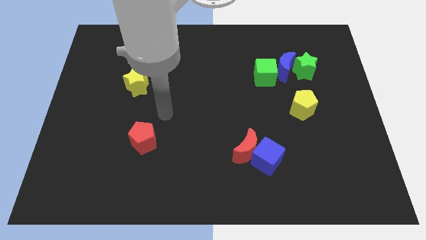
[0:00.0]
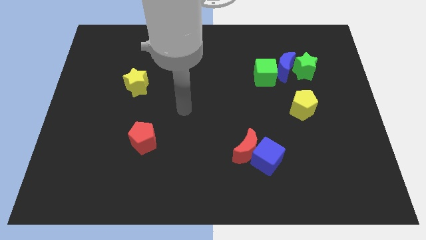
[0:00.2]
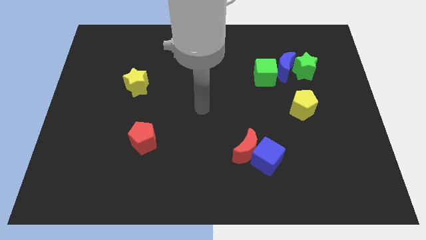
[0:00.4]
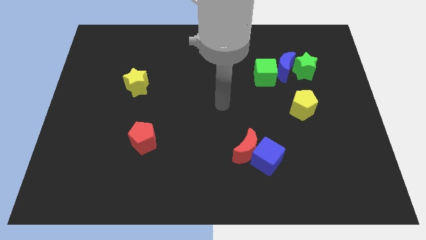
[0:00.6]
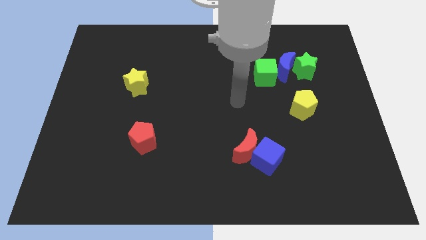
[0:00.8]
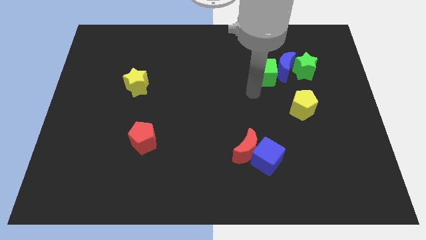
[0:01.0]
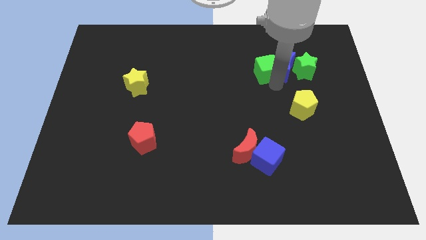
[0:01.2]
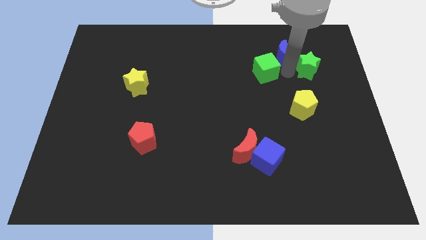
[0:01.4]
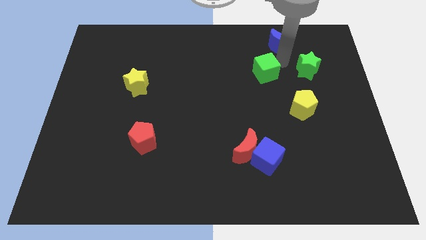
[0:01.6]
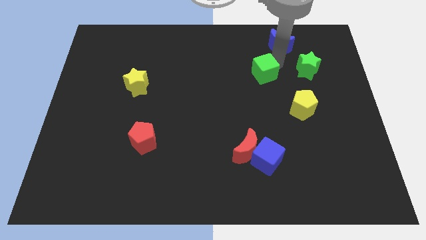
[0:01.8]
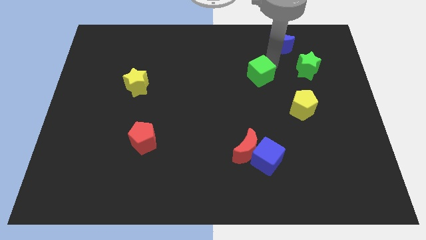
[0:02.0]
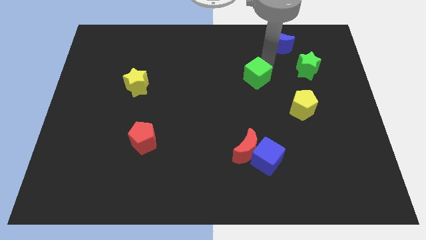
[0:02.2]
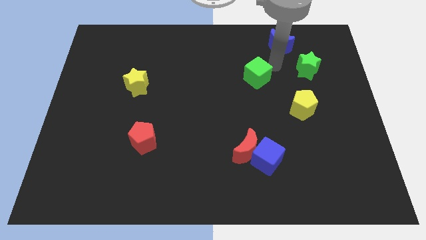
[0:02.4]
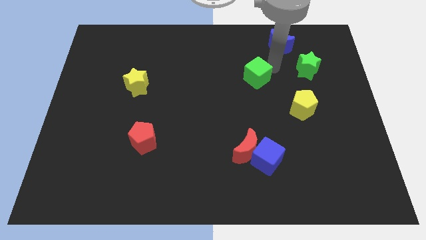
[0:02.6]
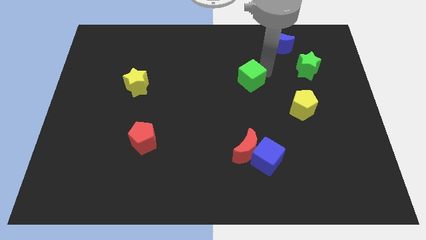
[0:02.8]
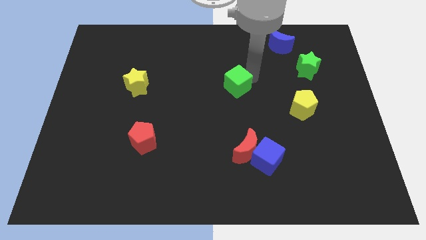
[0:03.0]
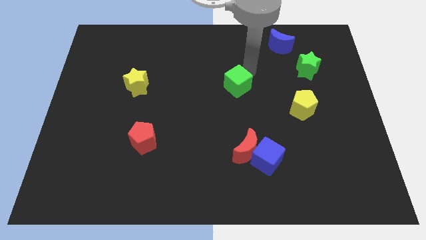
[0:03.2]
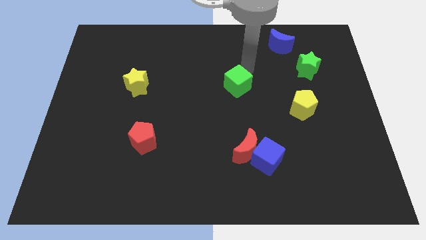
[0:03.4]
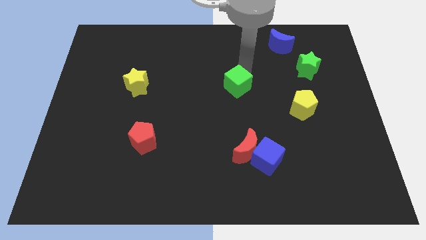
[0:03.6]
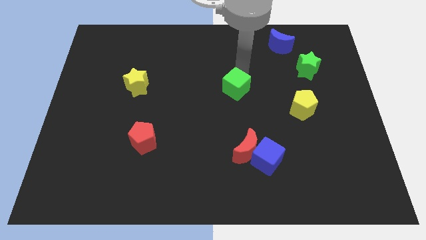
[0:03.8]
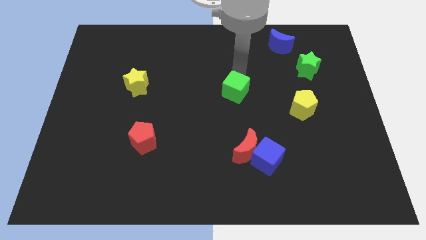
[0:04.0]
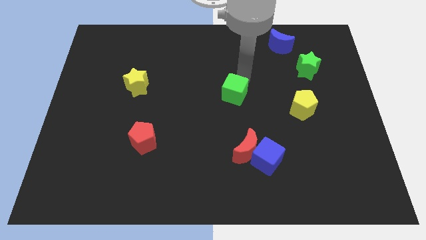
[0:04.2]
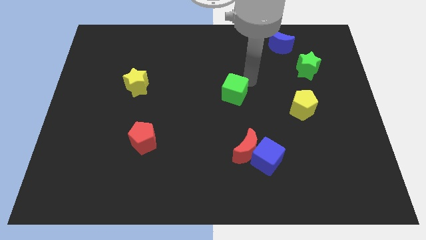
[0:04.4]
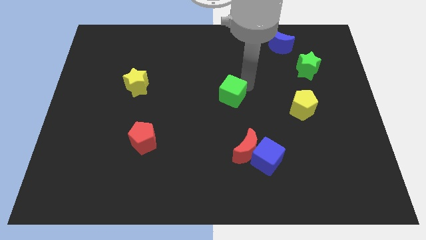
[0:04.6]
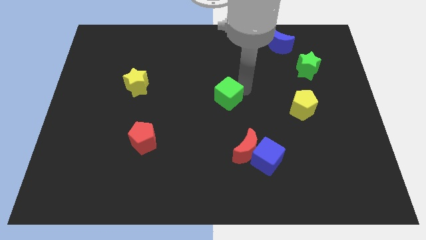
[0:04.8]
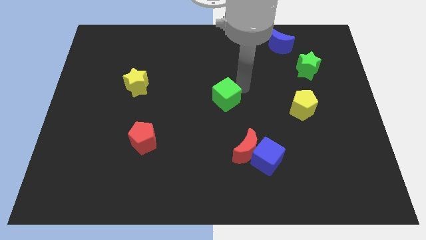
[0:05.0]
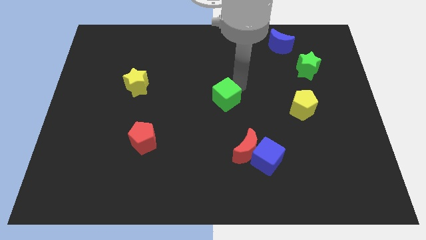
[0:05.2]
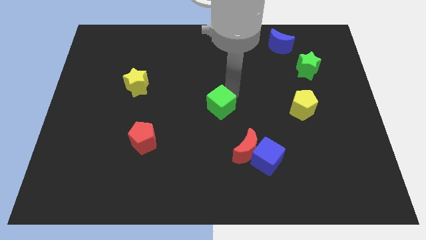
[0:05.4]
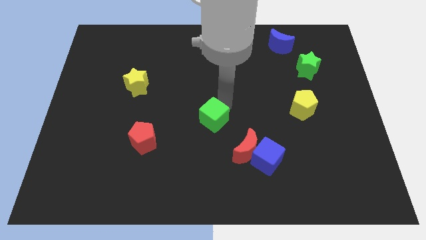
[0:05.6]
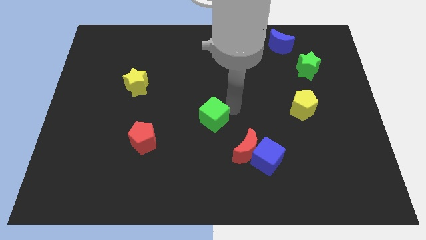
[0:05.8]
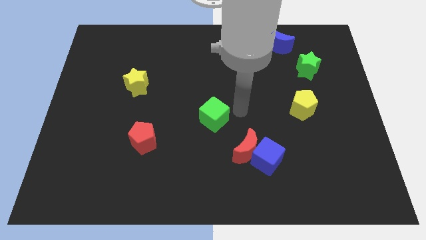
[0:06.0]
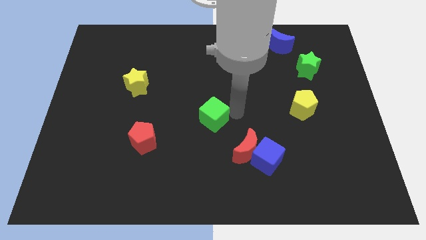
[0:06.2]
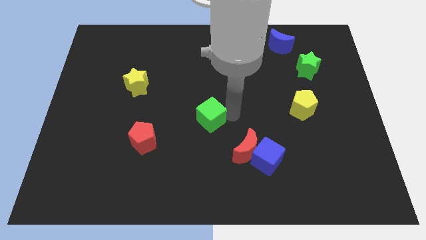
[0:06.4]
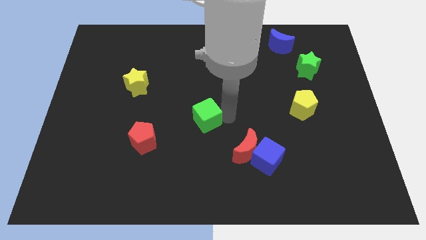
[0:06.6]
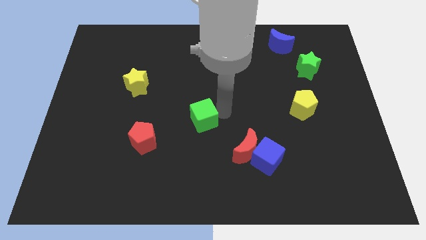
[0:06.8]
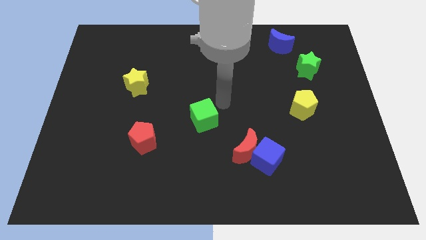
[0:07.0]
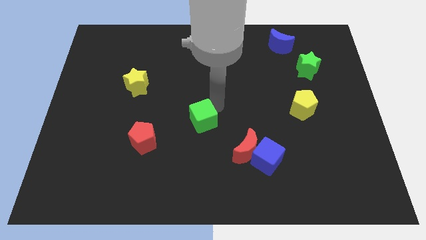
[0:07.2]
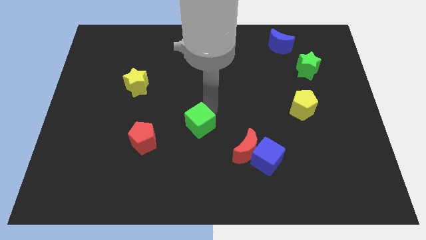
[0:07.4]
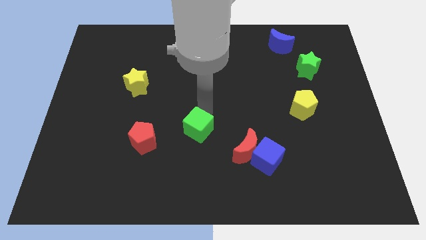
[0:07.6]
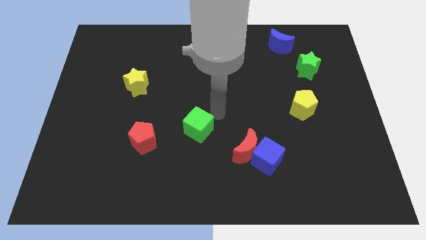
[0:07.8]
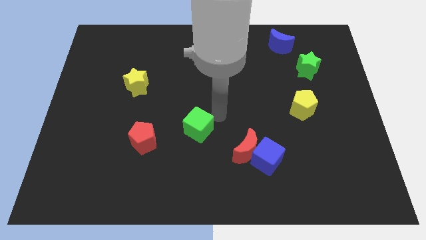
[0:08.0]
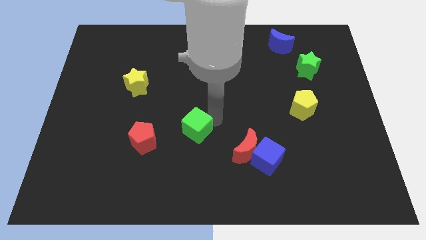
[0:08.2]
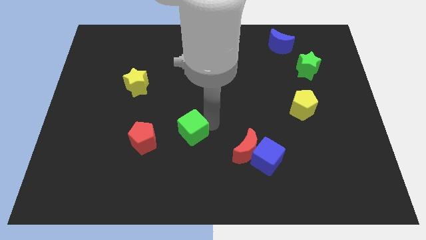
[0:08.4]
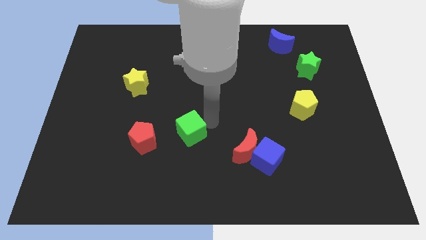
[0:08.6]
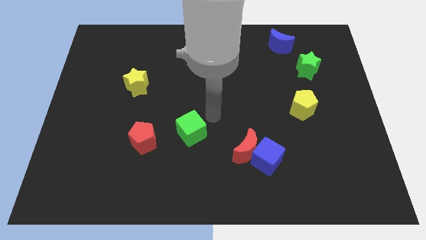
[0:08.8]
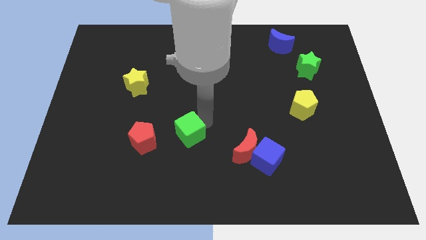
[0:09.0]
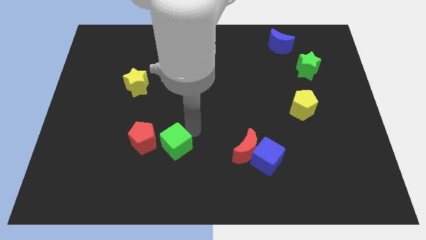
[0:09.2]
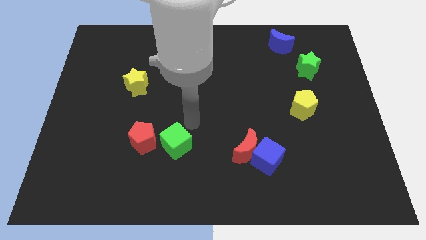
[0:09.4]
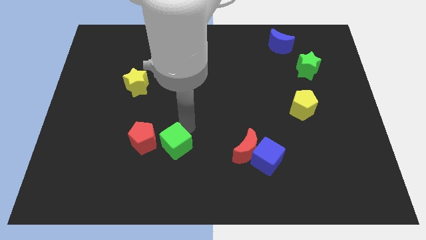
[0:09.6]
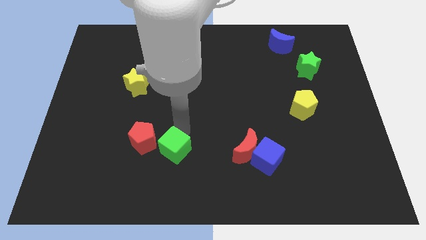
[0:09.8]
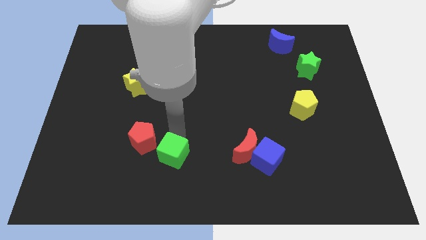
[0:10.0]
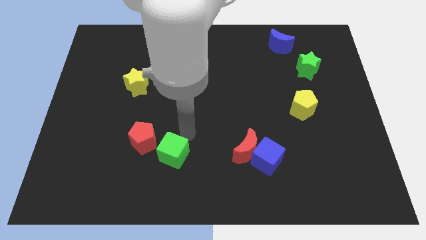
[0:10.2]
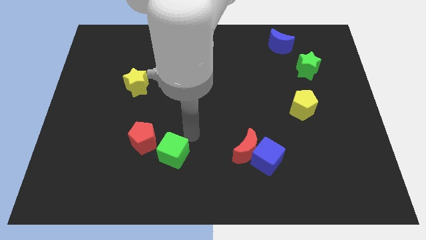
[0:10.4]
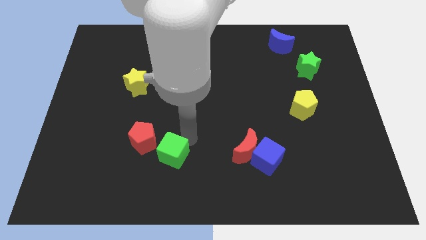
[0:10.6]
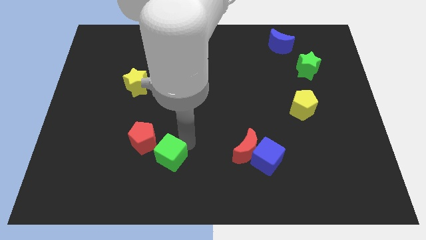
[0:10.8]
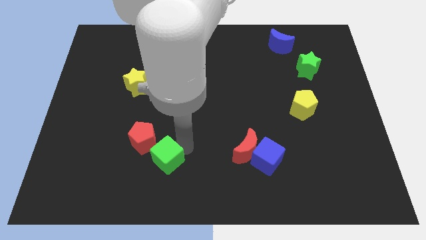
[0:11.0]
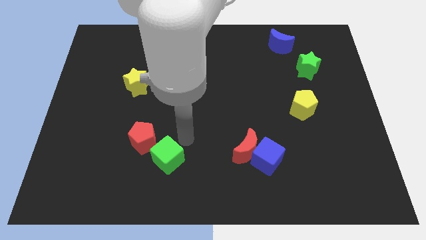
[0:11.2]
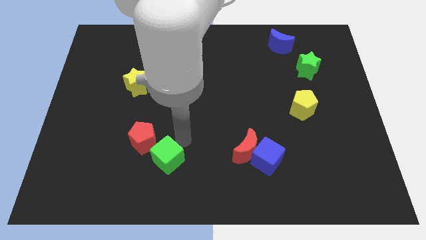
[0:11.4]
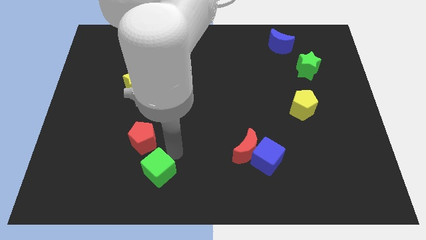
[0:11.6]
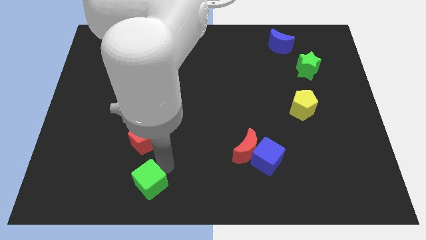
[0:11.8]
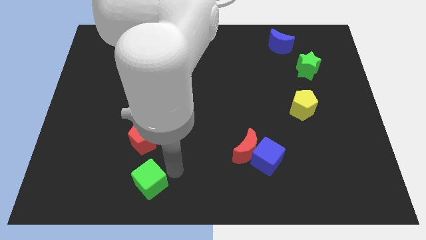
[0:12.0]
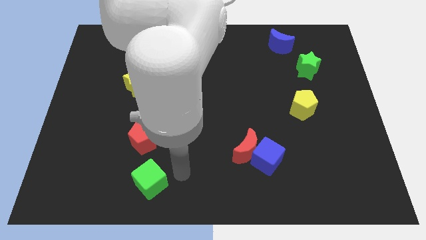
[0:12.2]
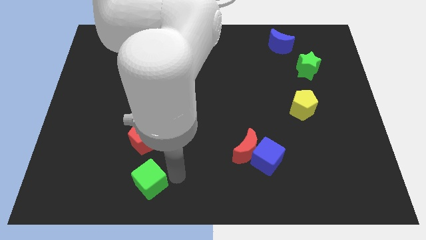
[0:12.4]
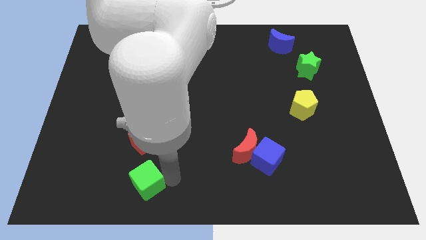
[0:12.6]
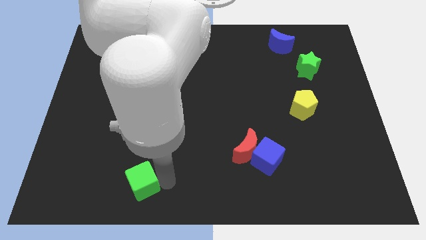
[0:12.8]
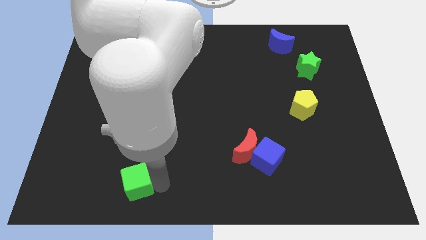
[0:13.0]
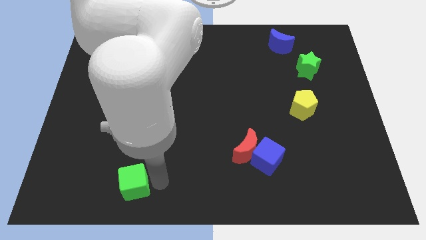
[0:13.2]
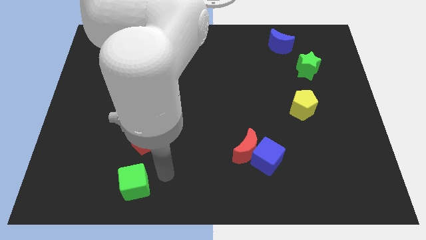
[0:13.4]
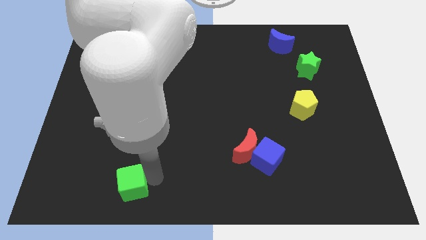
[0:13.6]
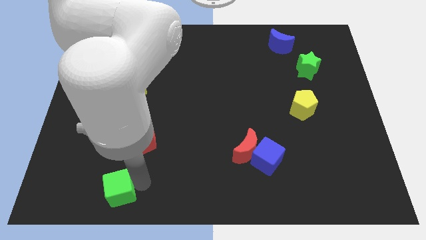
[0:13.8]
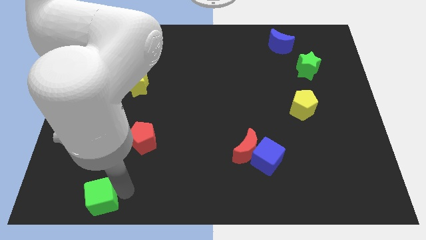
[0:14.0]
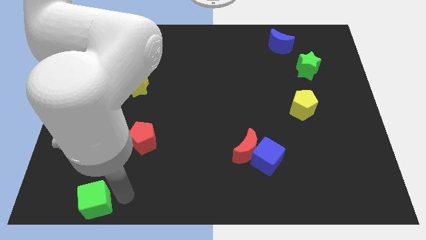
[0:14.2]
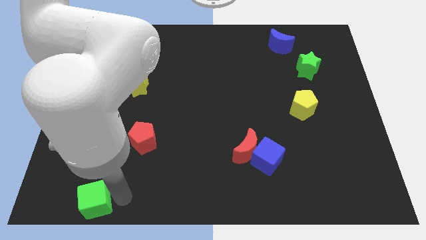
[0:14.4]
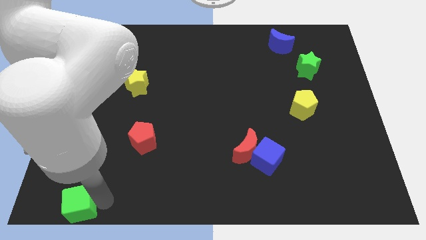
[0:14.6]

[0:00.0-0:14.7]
put the green cube to the bottom left corner
